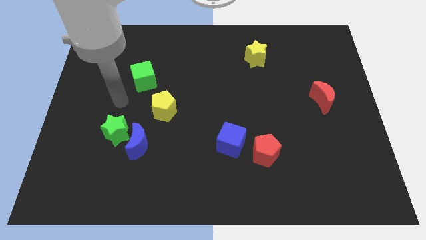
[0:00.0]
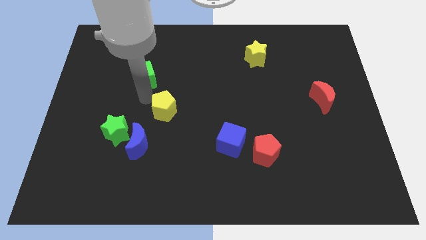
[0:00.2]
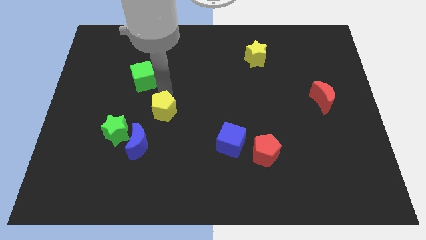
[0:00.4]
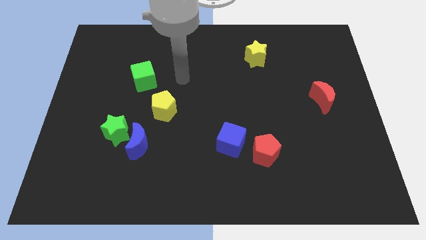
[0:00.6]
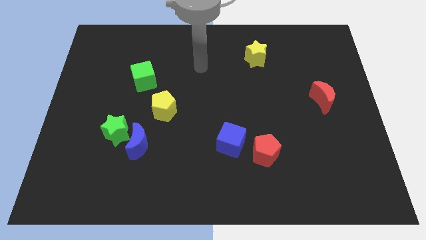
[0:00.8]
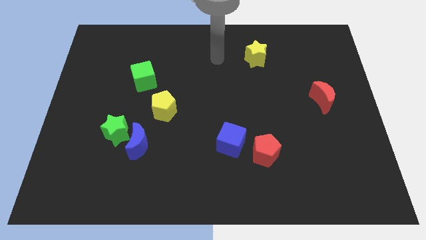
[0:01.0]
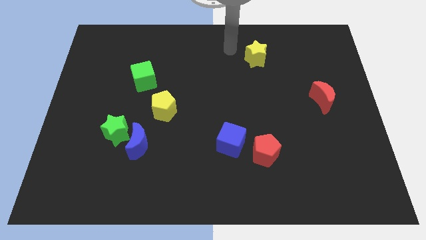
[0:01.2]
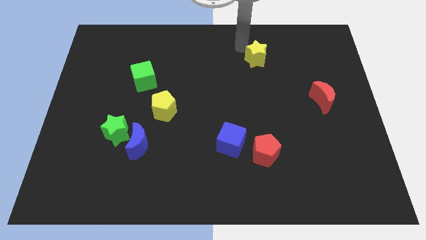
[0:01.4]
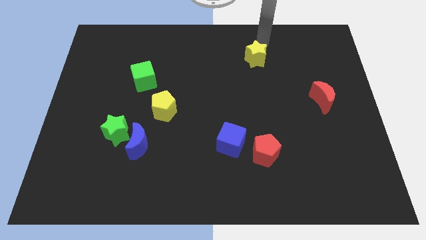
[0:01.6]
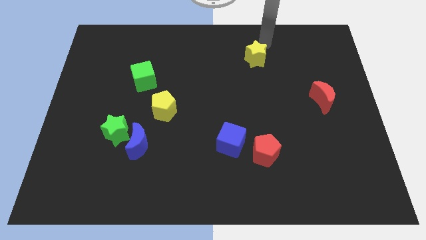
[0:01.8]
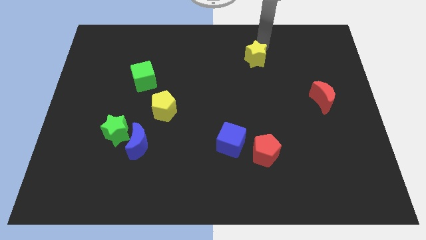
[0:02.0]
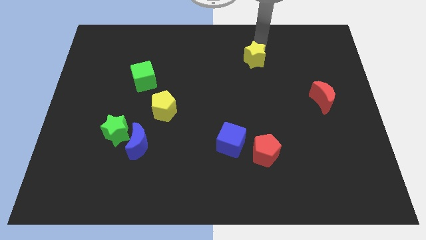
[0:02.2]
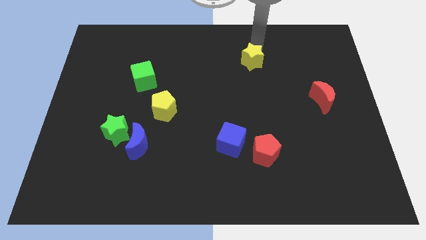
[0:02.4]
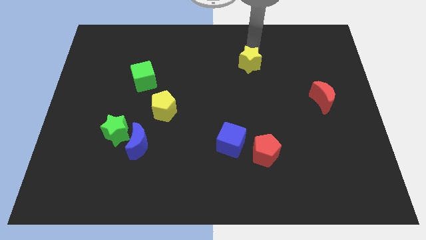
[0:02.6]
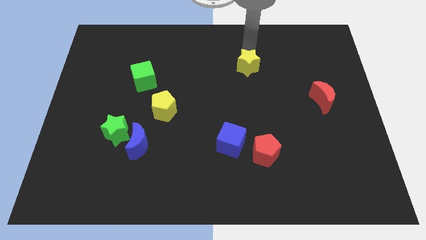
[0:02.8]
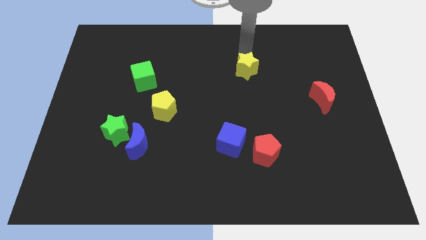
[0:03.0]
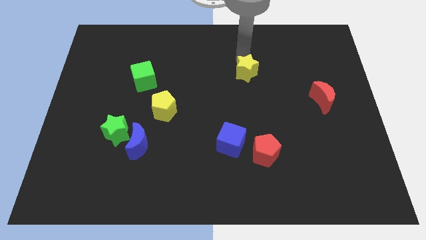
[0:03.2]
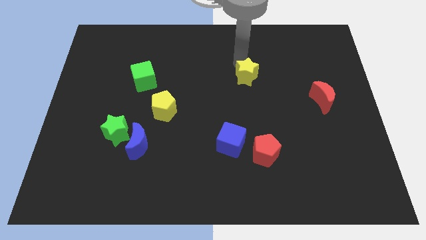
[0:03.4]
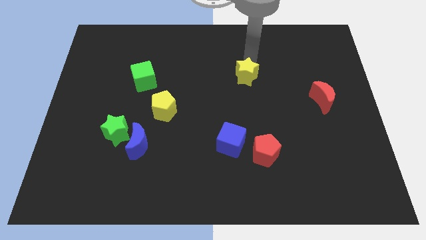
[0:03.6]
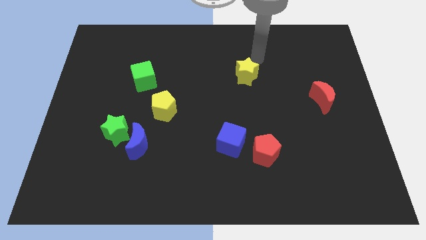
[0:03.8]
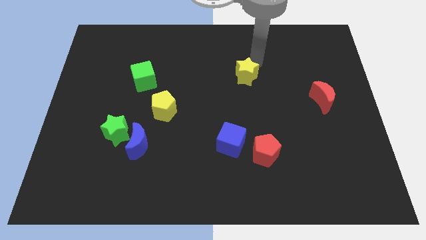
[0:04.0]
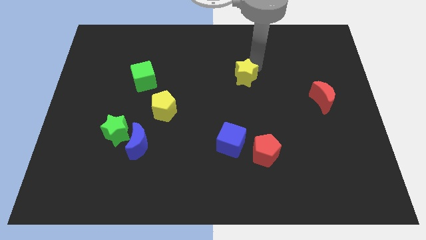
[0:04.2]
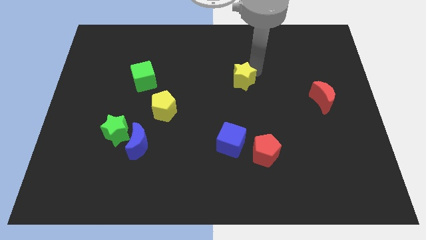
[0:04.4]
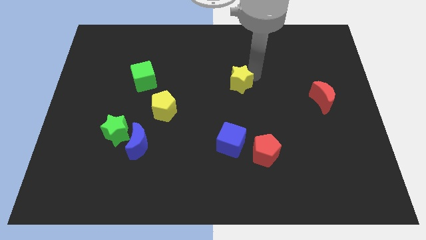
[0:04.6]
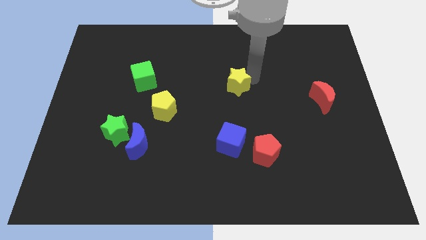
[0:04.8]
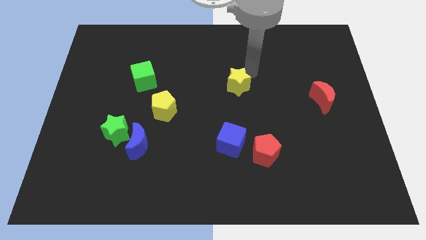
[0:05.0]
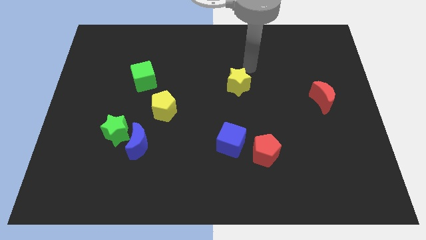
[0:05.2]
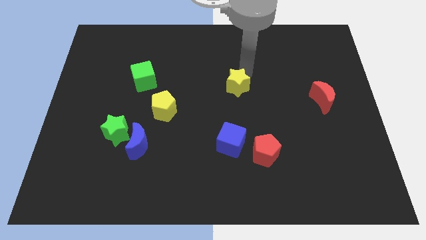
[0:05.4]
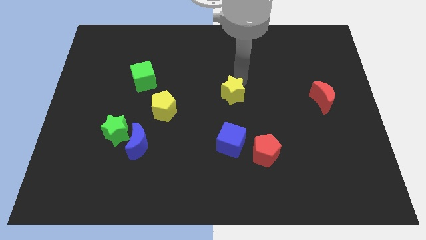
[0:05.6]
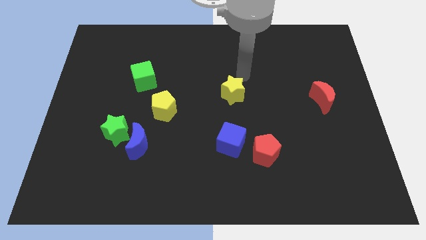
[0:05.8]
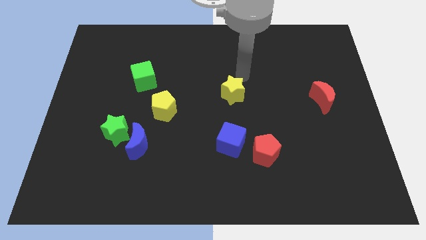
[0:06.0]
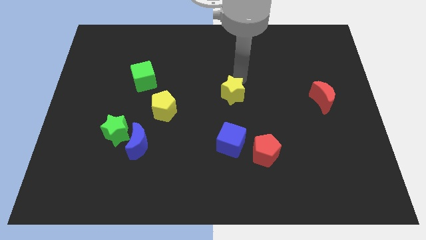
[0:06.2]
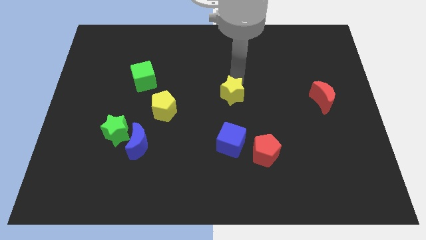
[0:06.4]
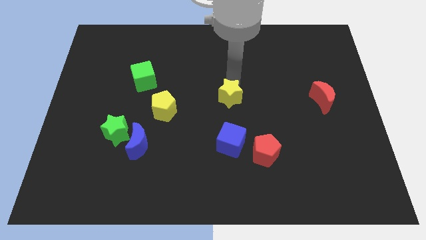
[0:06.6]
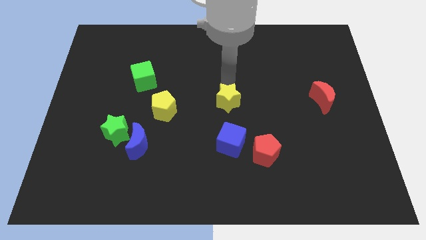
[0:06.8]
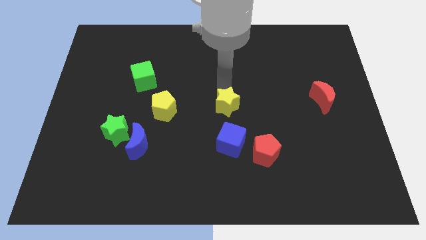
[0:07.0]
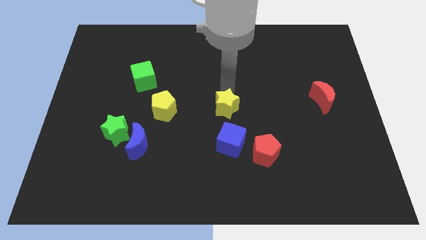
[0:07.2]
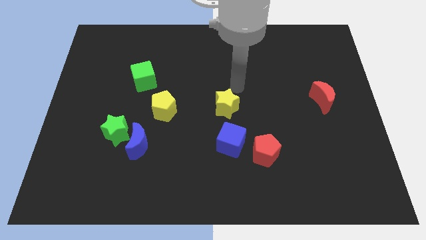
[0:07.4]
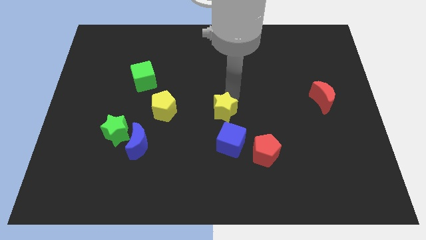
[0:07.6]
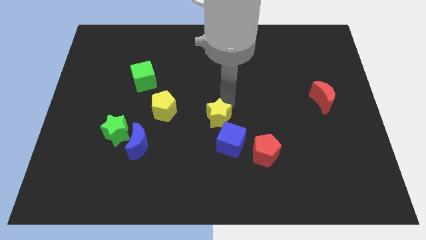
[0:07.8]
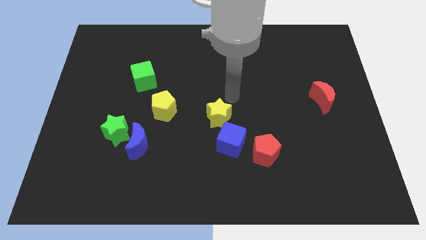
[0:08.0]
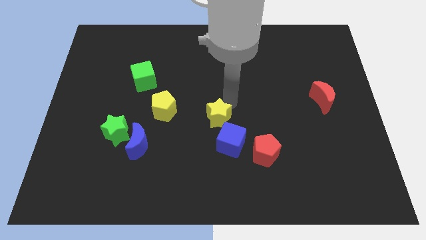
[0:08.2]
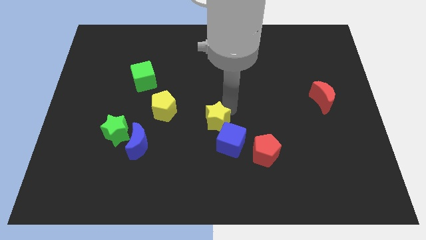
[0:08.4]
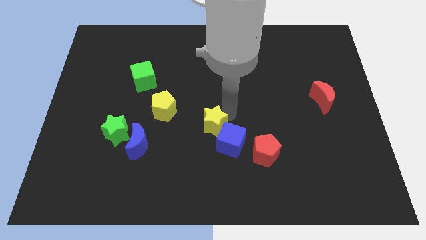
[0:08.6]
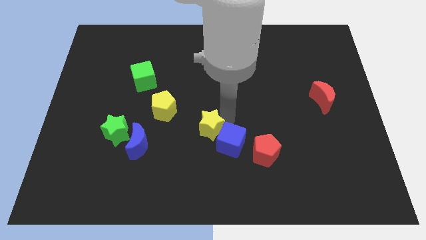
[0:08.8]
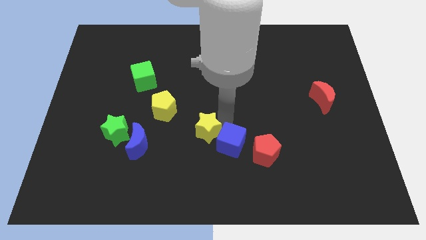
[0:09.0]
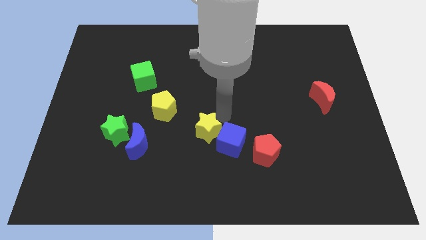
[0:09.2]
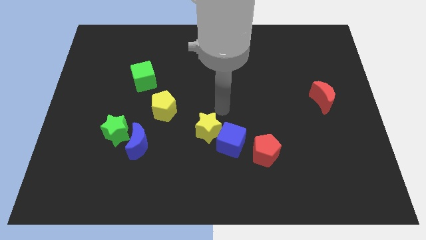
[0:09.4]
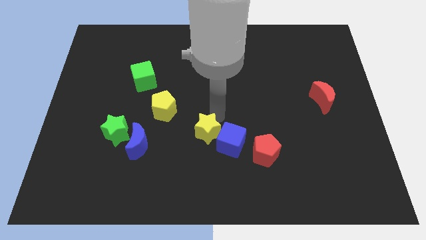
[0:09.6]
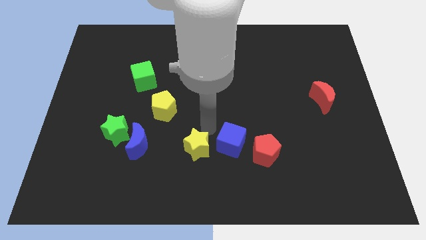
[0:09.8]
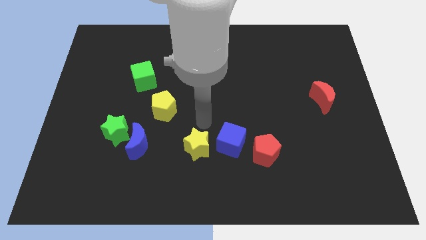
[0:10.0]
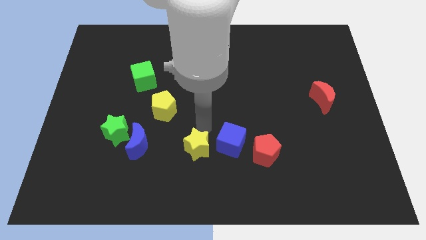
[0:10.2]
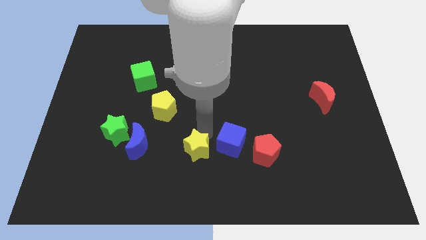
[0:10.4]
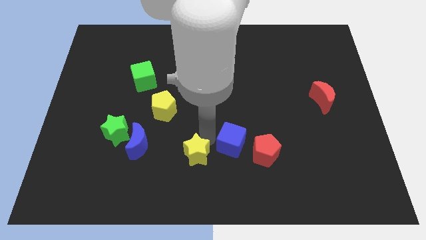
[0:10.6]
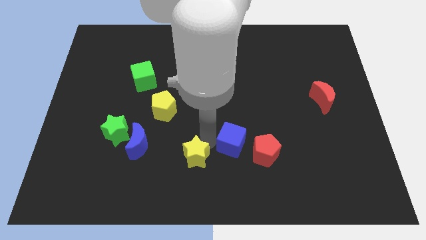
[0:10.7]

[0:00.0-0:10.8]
put the yellow star to the bottom

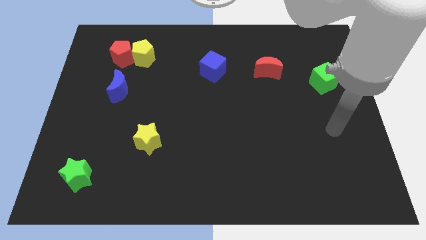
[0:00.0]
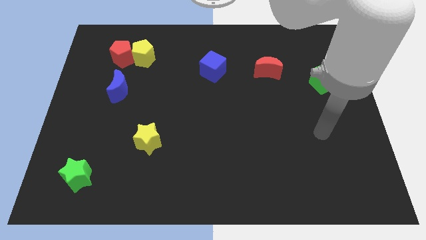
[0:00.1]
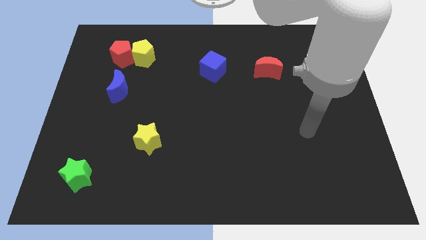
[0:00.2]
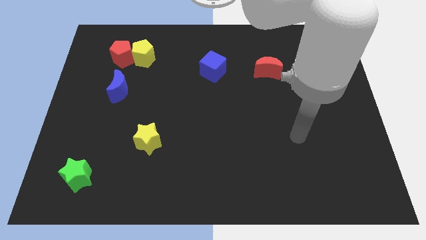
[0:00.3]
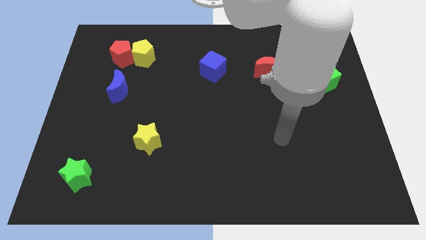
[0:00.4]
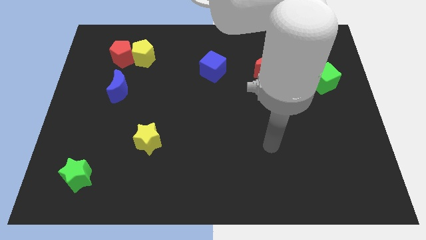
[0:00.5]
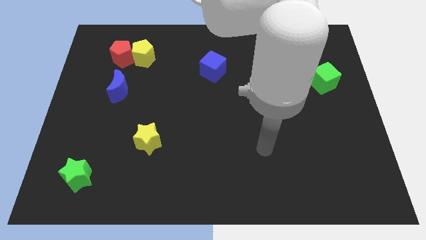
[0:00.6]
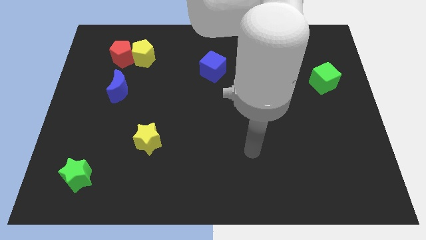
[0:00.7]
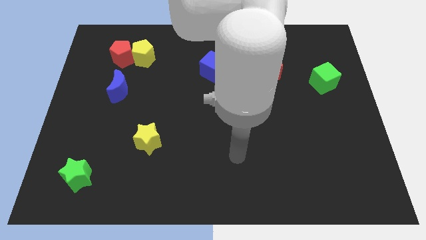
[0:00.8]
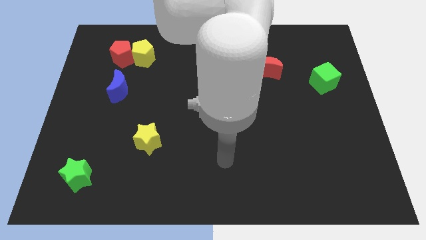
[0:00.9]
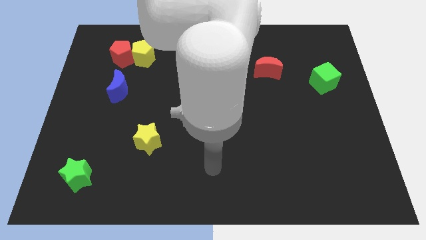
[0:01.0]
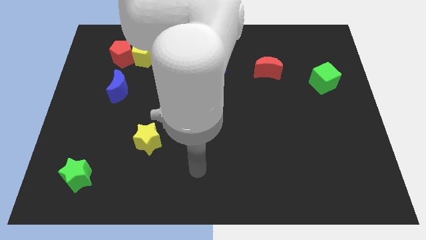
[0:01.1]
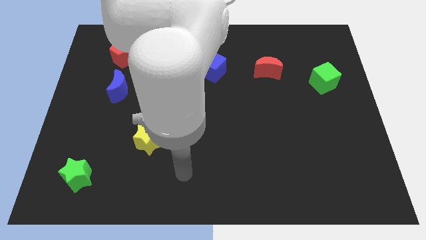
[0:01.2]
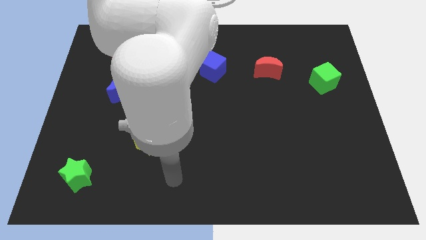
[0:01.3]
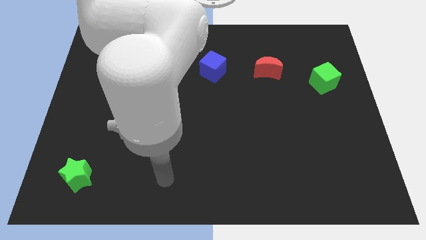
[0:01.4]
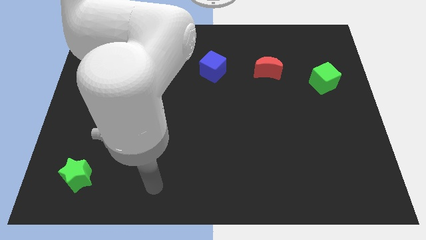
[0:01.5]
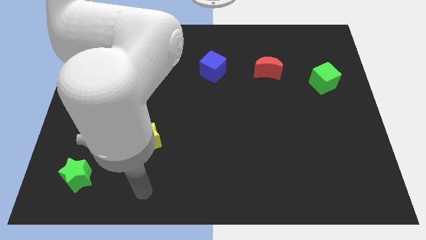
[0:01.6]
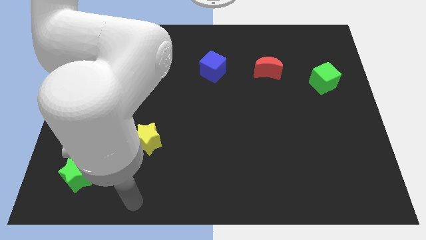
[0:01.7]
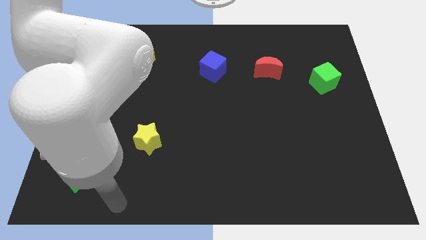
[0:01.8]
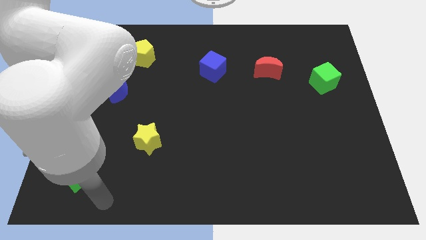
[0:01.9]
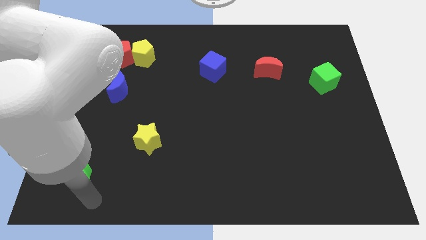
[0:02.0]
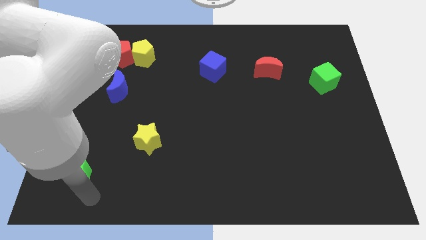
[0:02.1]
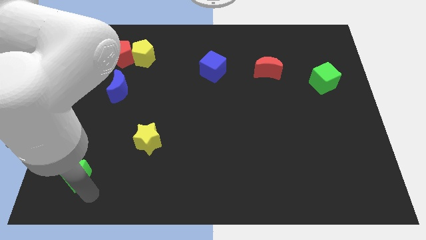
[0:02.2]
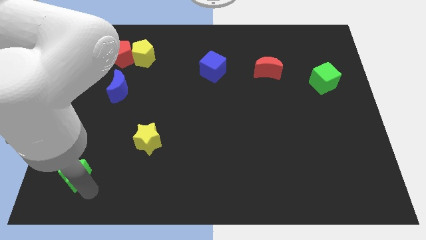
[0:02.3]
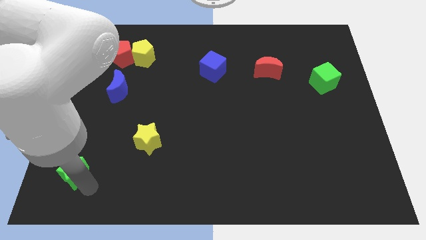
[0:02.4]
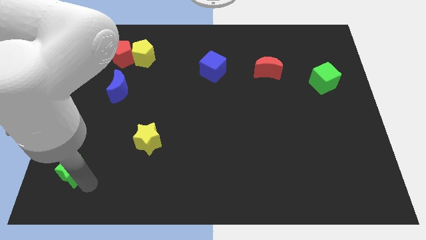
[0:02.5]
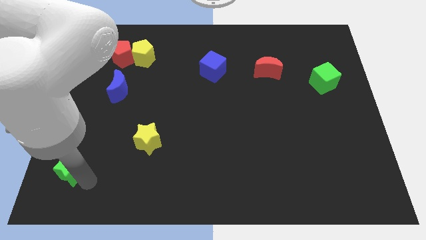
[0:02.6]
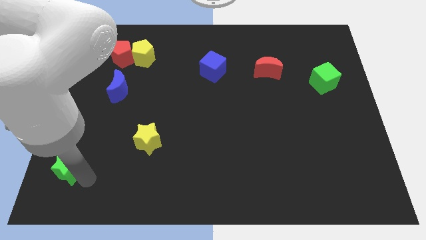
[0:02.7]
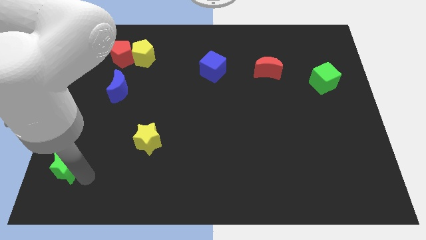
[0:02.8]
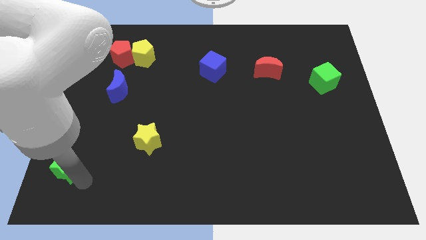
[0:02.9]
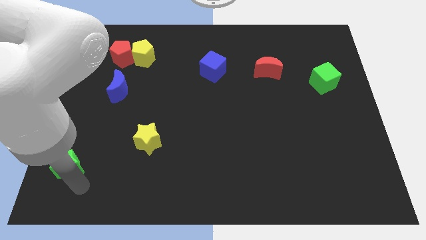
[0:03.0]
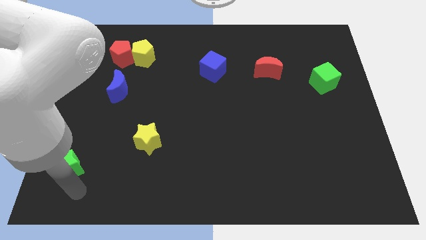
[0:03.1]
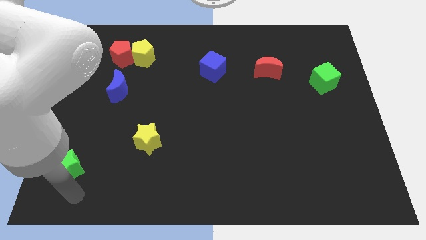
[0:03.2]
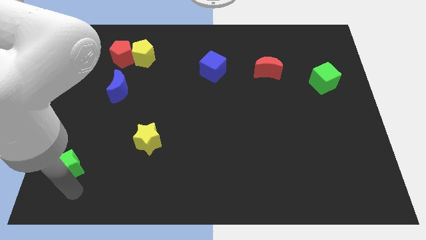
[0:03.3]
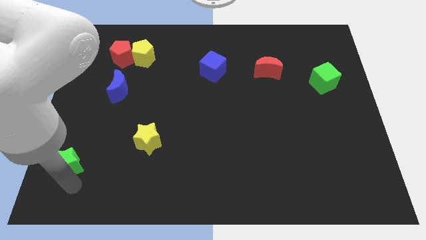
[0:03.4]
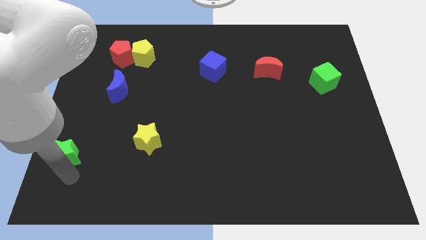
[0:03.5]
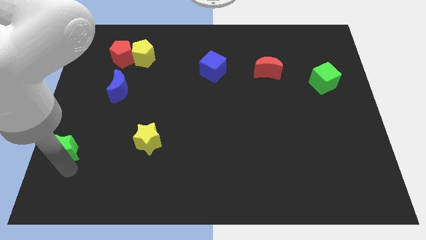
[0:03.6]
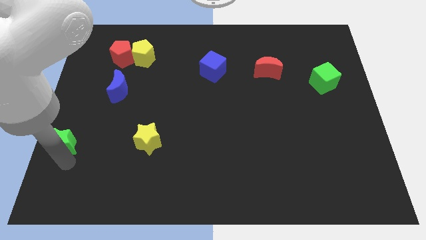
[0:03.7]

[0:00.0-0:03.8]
push the green star to the left side
